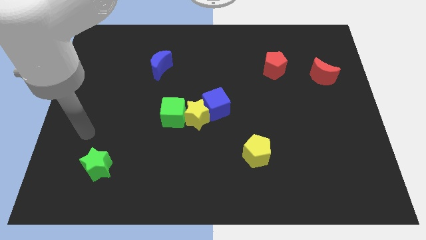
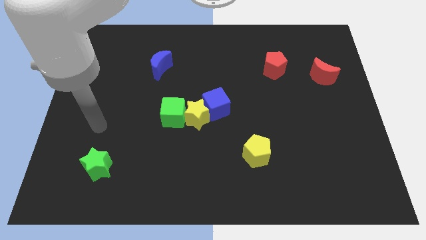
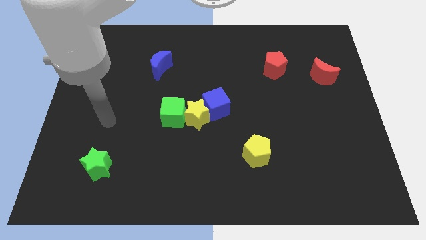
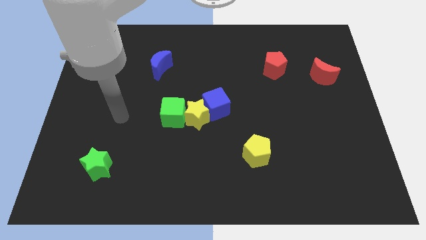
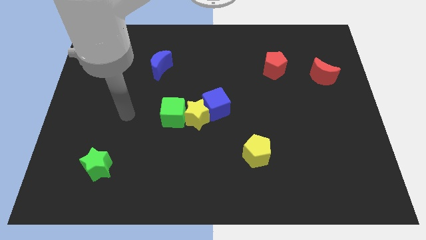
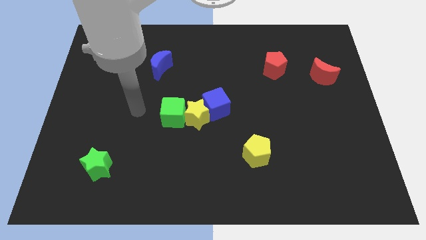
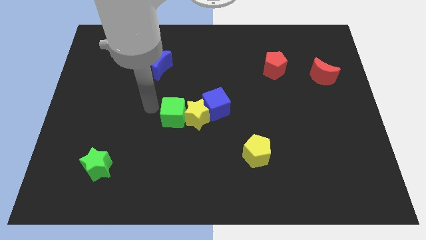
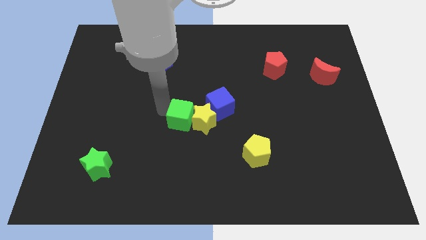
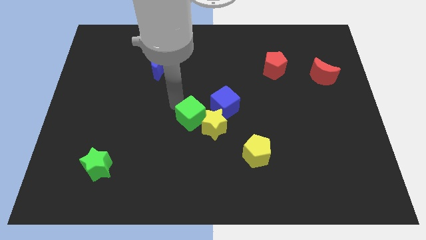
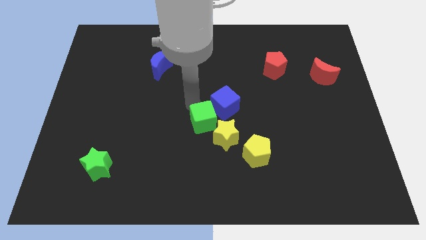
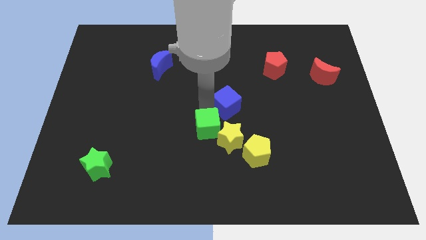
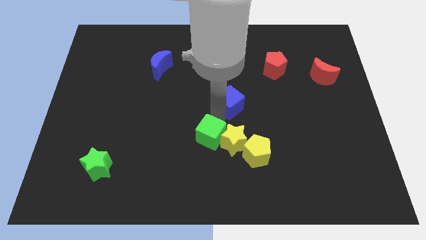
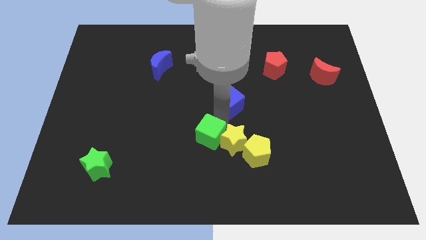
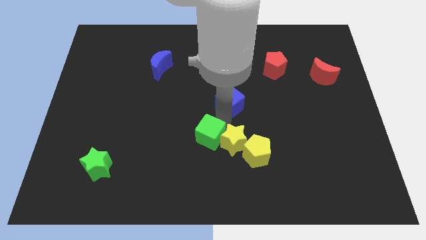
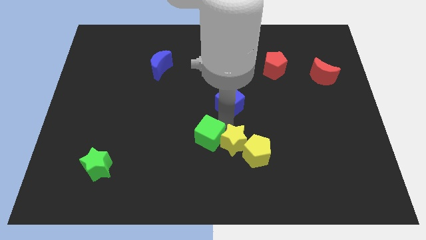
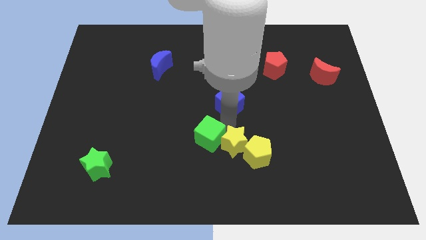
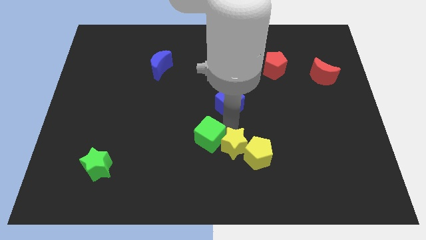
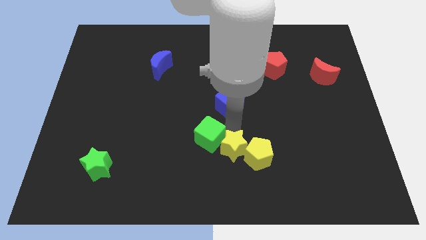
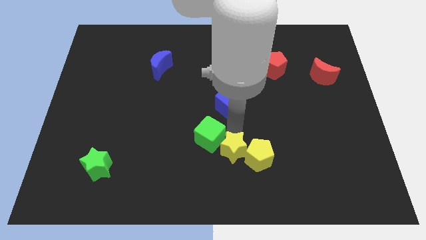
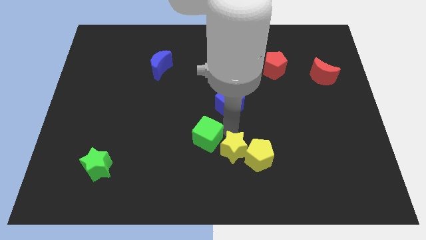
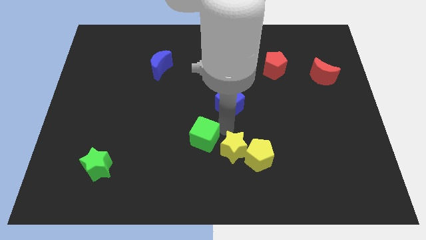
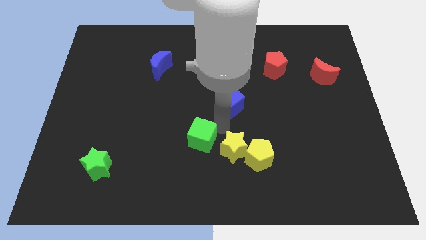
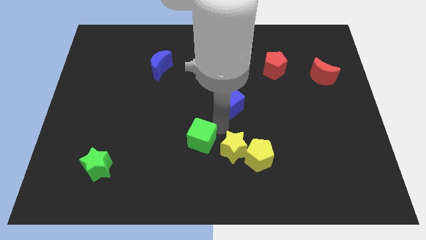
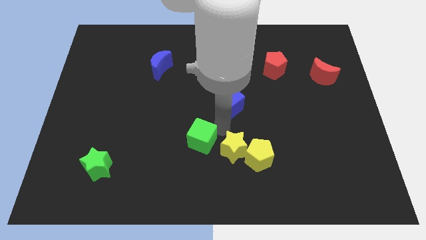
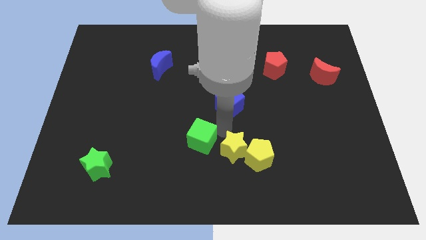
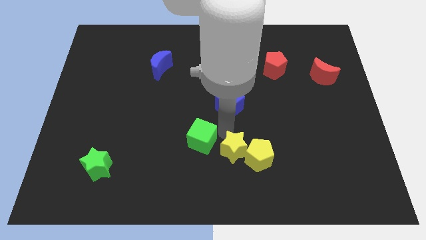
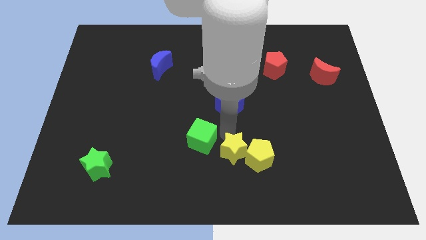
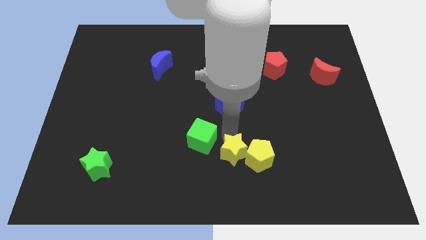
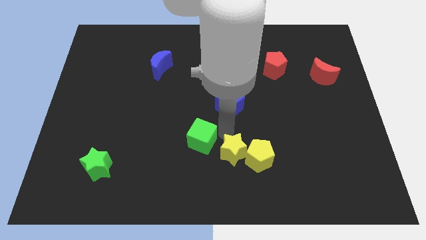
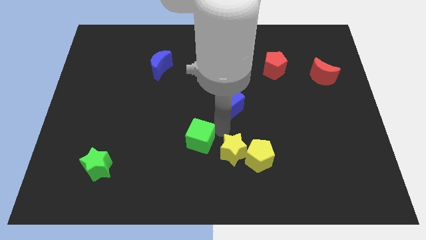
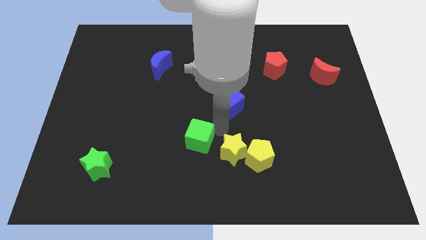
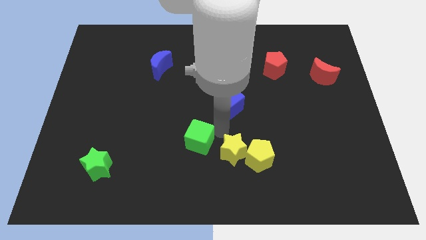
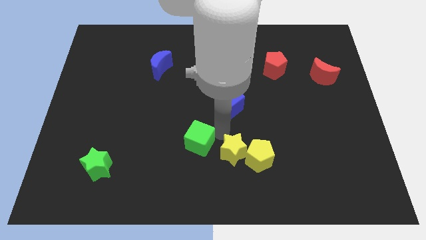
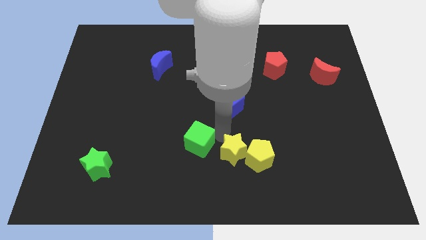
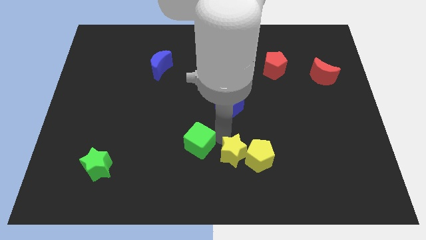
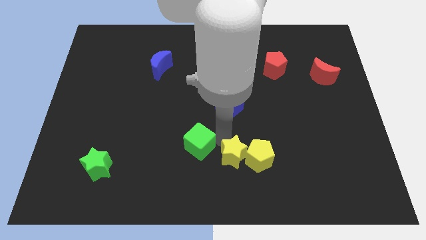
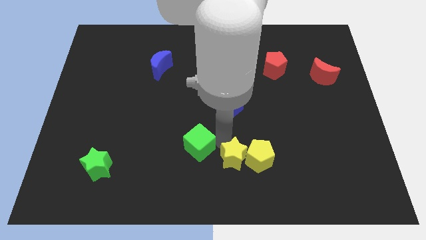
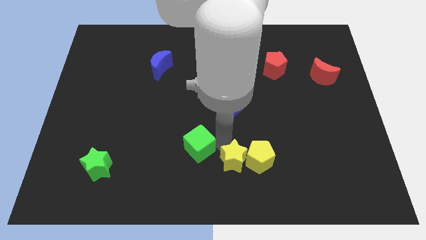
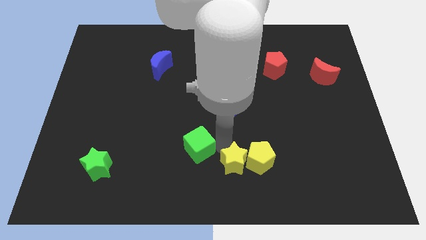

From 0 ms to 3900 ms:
move the yellow star away from the blue cube and green cube

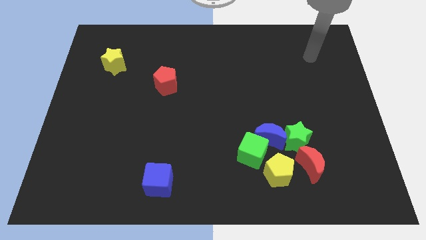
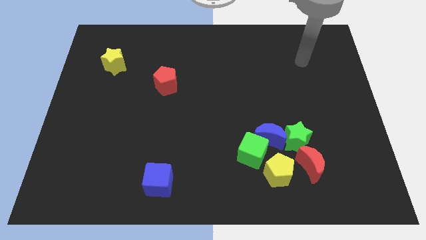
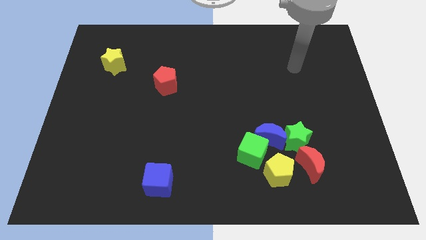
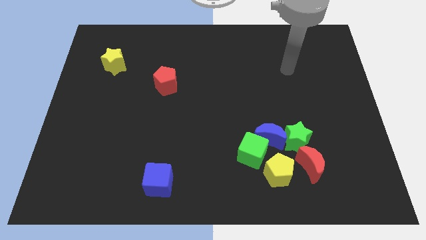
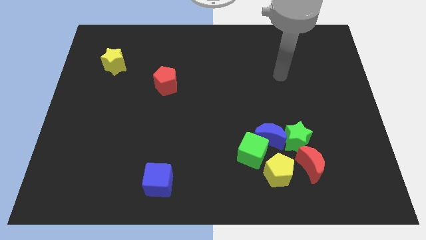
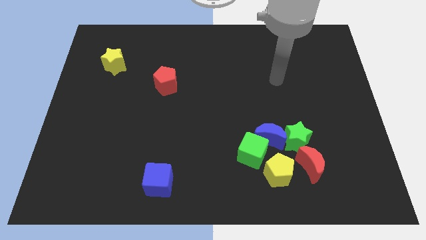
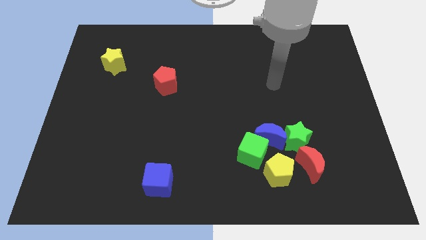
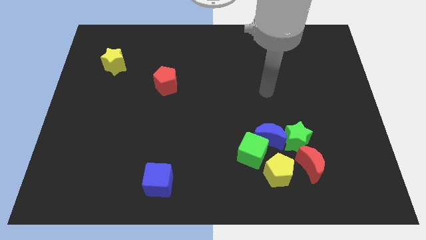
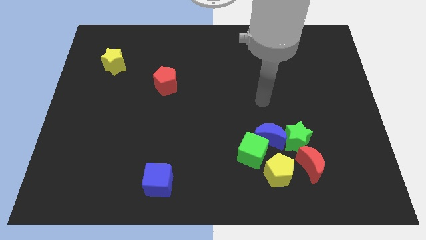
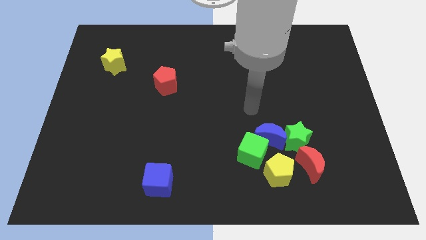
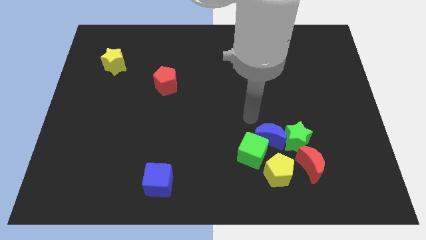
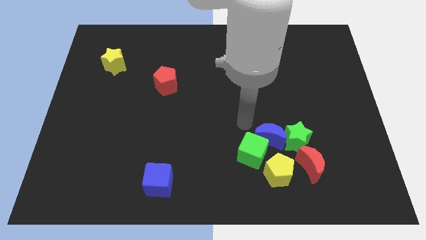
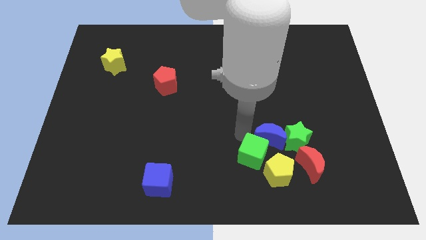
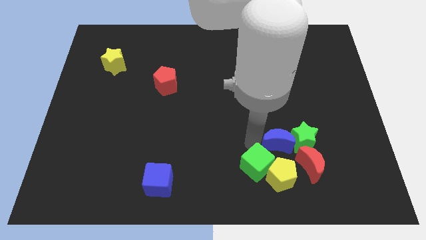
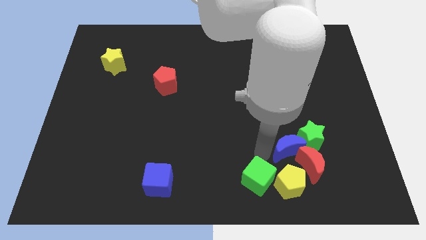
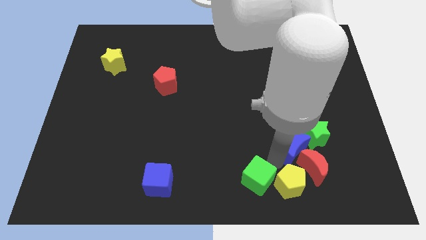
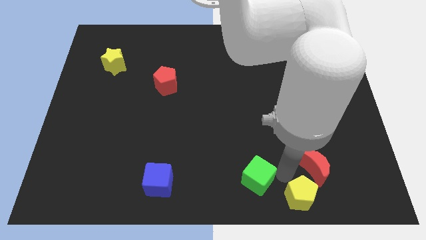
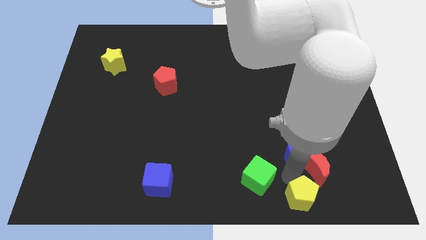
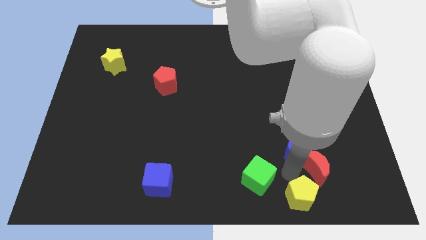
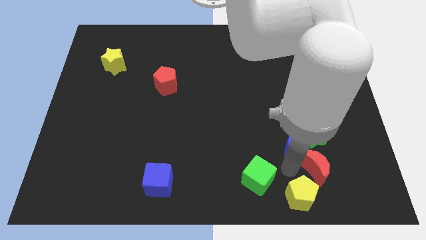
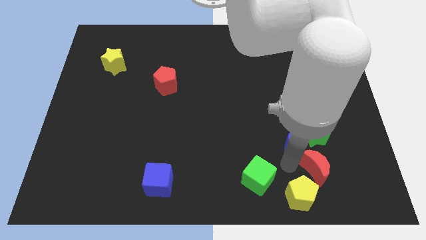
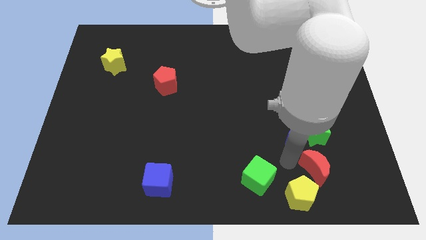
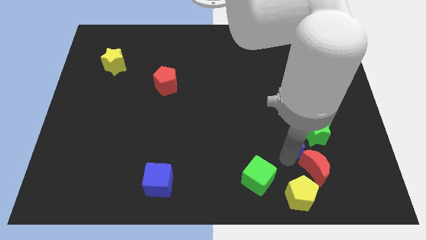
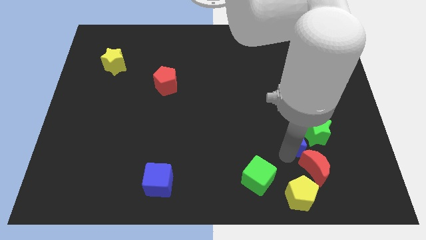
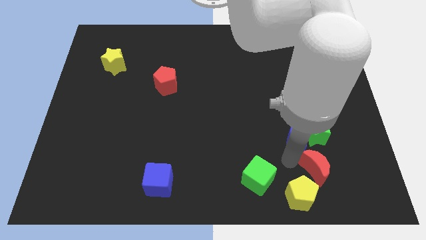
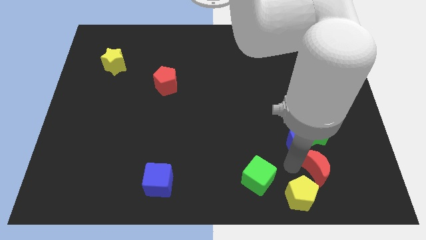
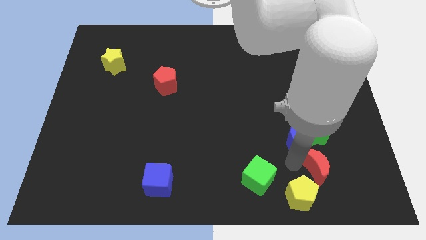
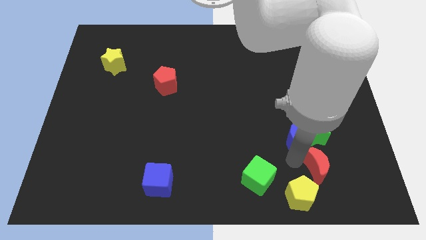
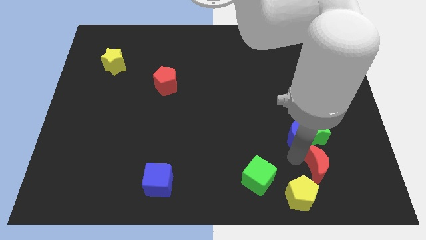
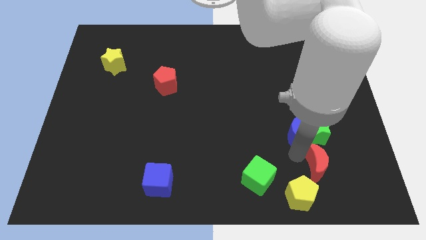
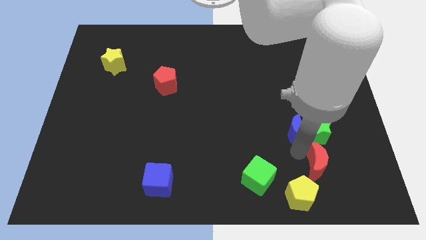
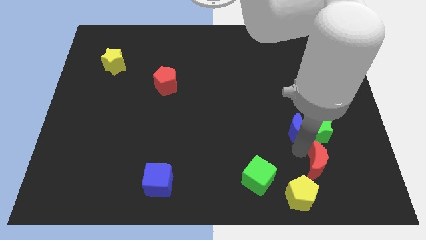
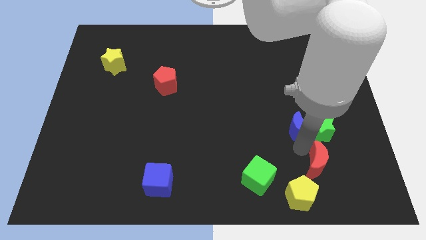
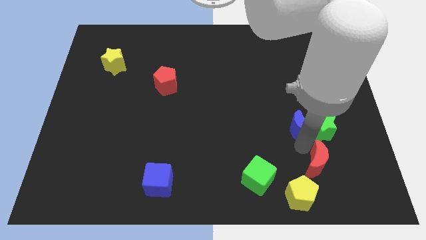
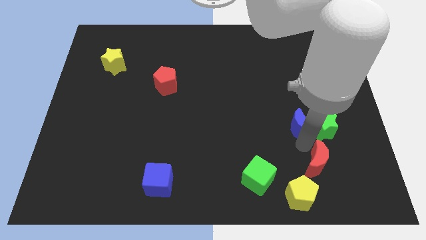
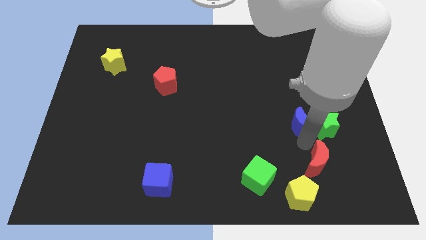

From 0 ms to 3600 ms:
pull the blue moon apart from the green cube, green star, and yellow pentagon

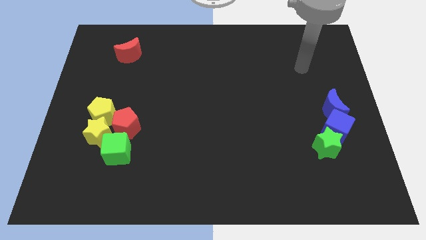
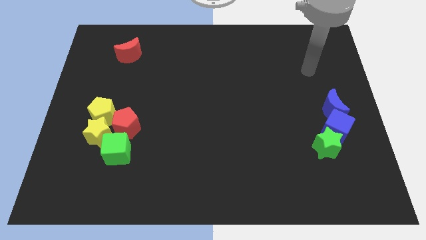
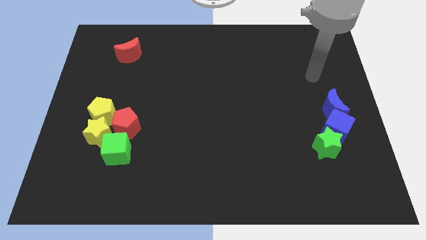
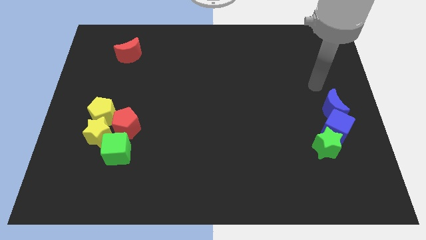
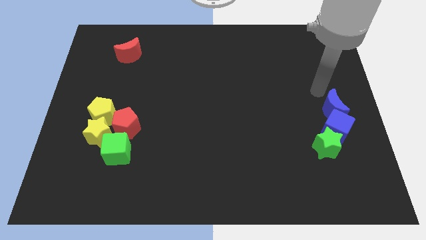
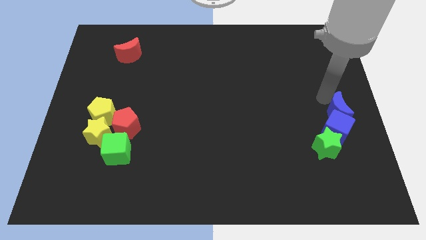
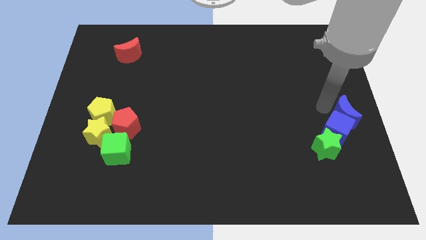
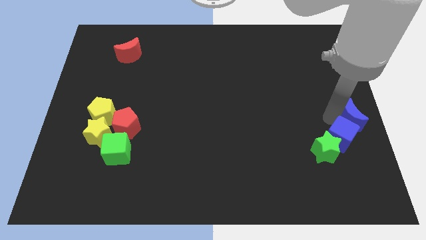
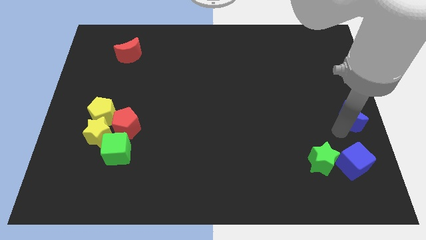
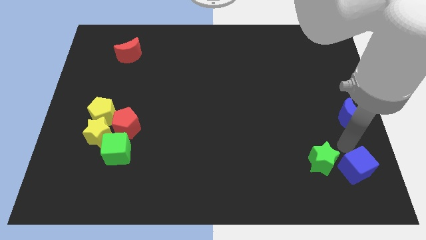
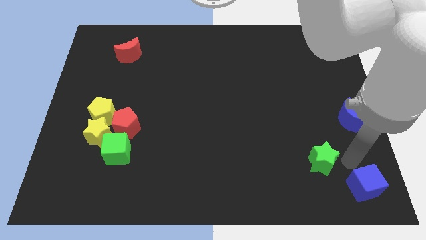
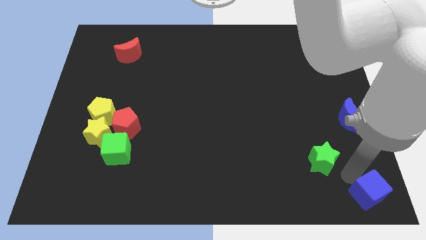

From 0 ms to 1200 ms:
move the green star away from the blue cube

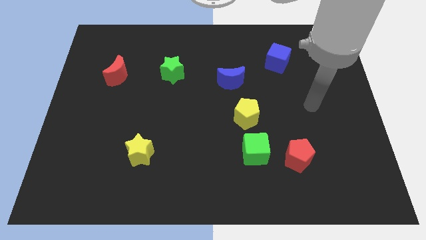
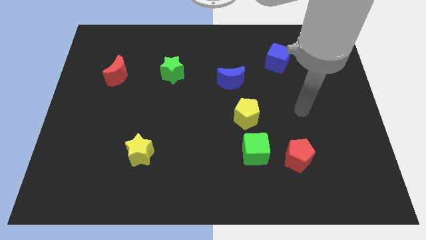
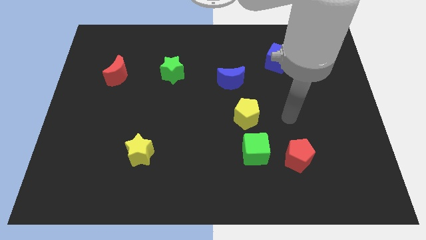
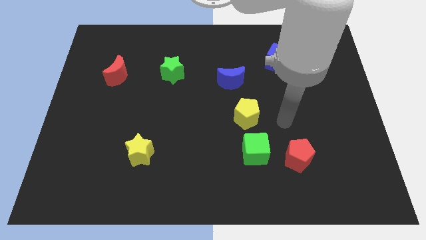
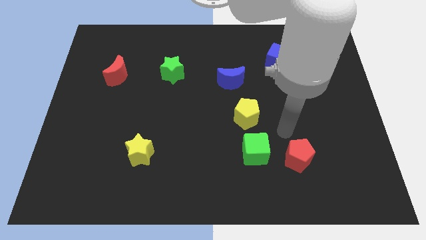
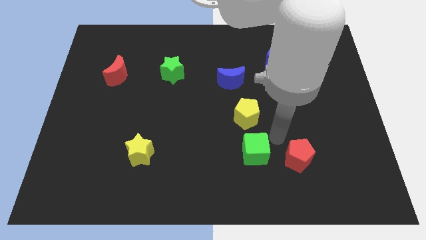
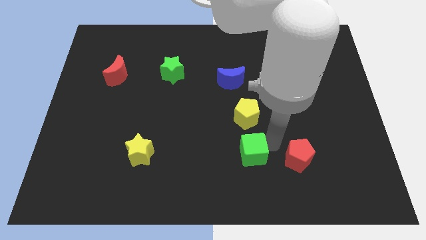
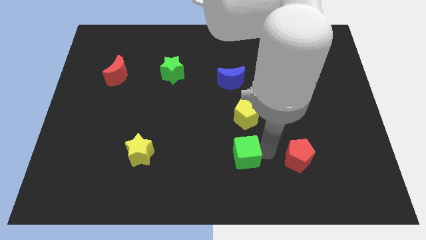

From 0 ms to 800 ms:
separate the red pentagon from the green cube
